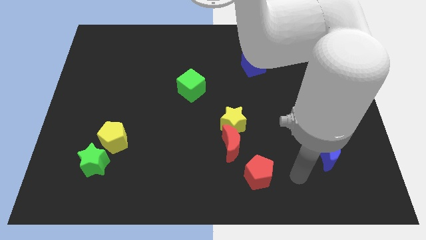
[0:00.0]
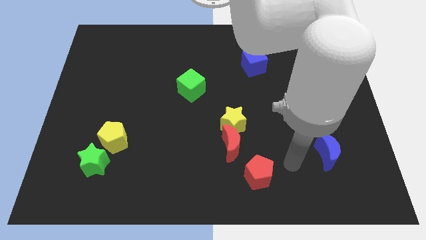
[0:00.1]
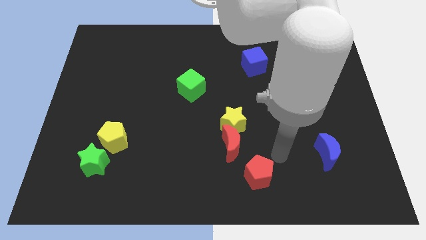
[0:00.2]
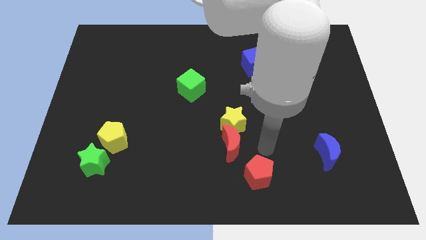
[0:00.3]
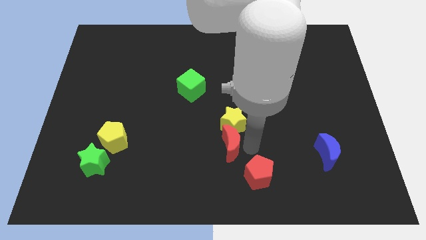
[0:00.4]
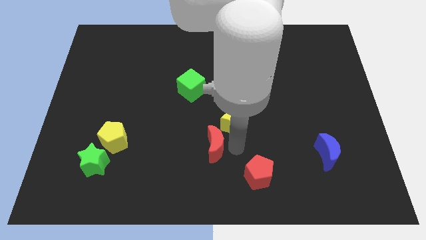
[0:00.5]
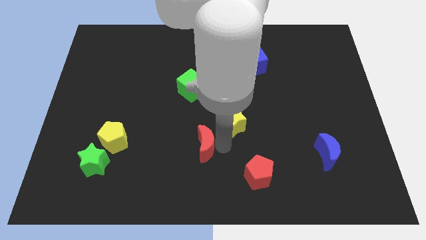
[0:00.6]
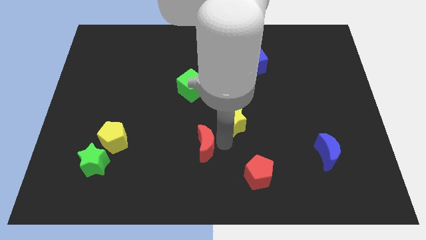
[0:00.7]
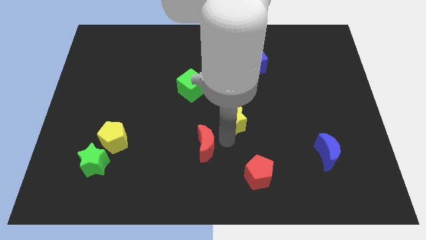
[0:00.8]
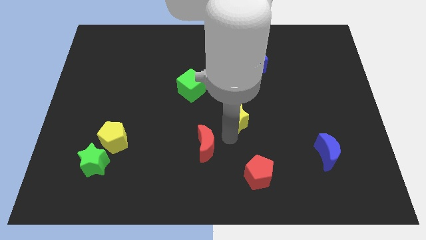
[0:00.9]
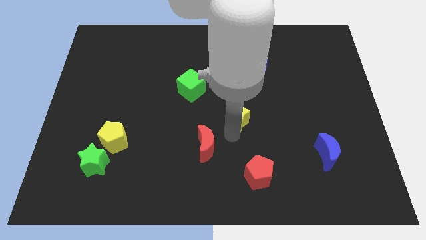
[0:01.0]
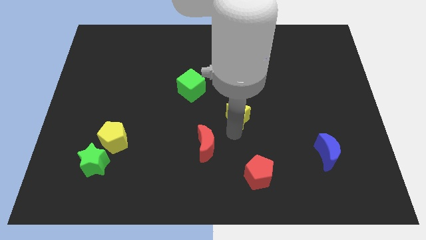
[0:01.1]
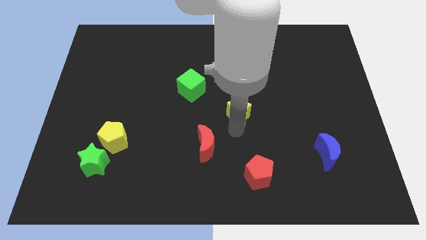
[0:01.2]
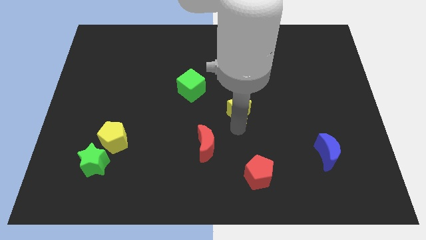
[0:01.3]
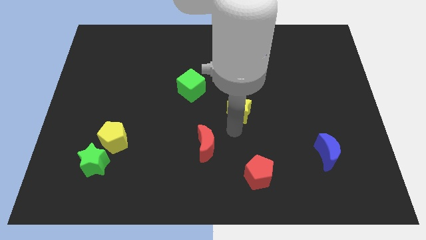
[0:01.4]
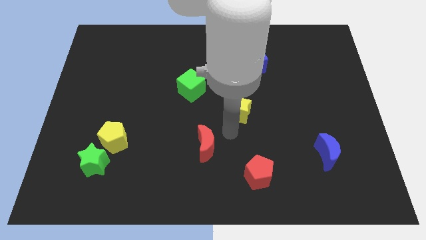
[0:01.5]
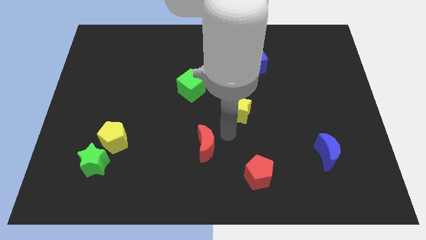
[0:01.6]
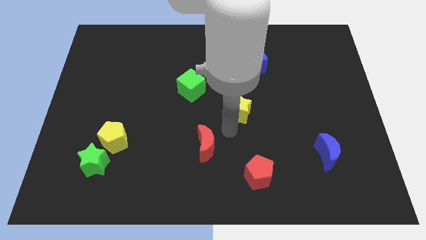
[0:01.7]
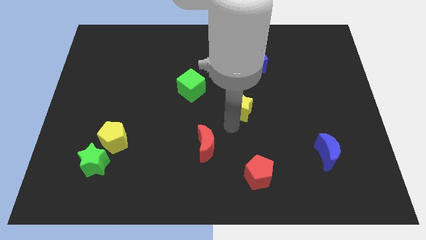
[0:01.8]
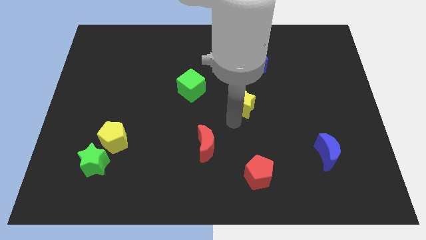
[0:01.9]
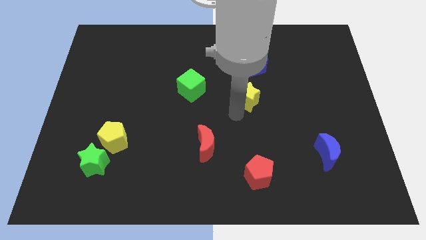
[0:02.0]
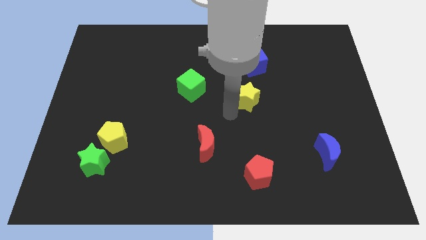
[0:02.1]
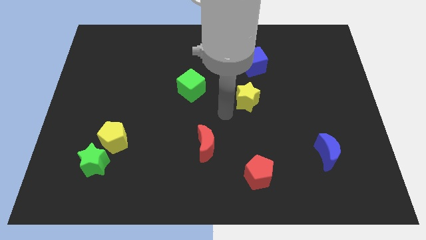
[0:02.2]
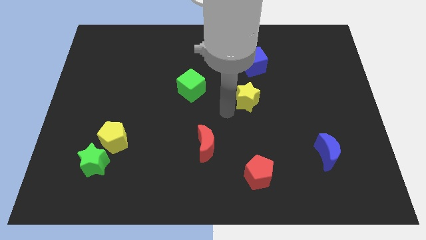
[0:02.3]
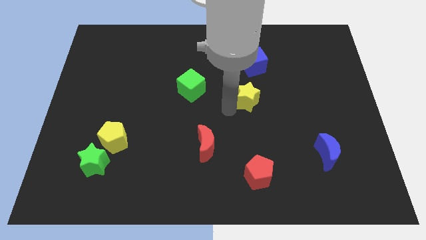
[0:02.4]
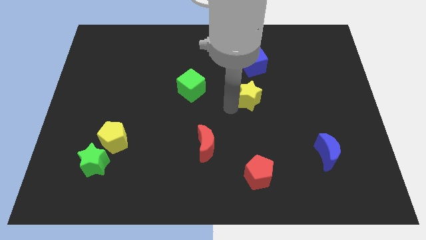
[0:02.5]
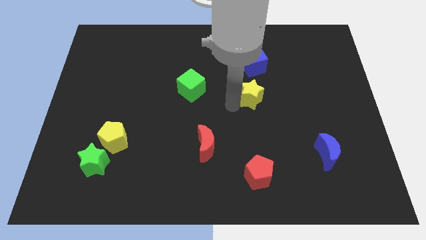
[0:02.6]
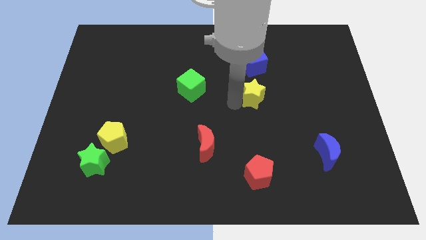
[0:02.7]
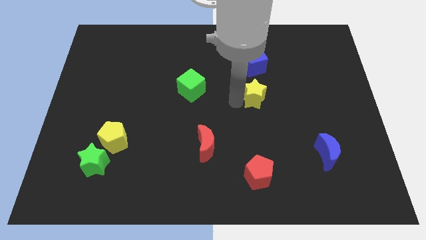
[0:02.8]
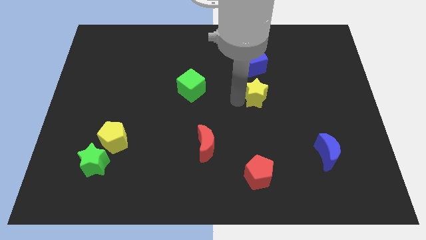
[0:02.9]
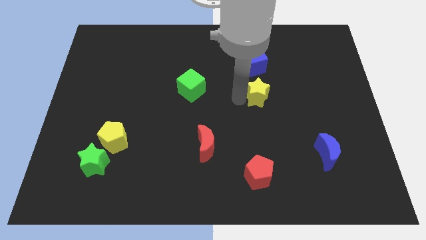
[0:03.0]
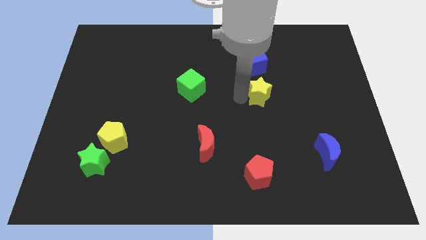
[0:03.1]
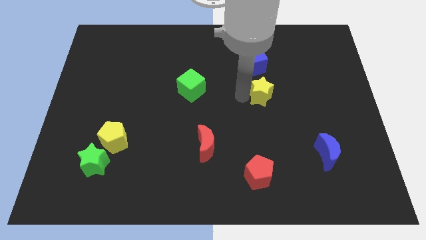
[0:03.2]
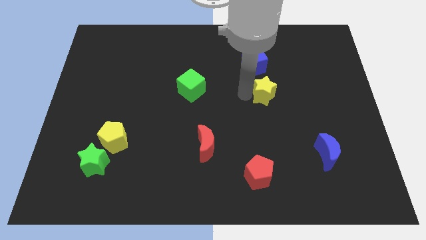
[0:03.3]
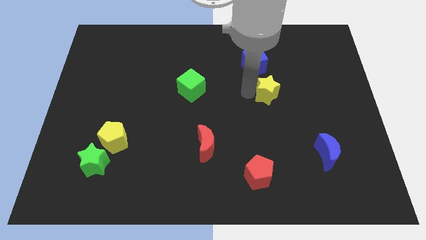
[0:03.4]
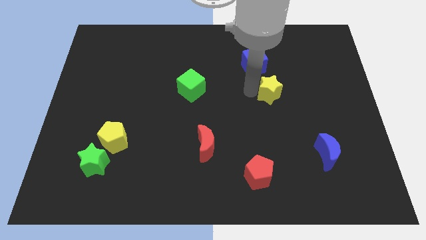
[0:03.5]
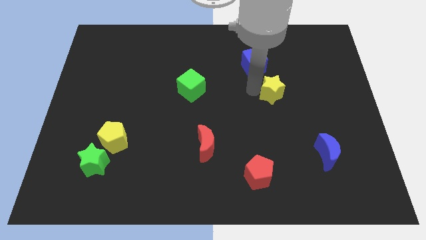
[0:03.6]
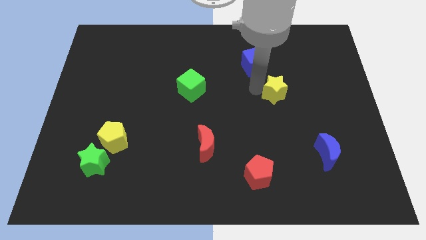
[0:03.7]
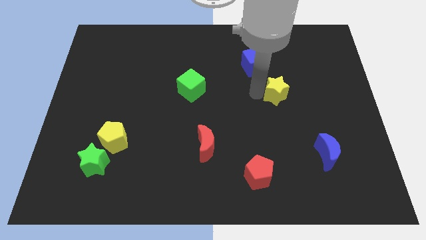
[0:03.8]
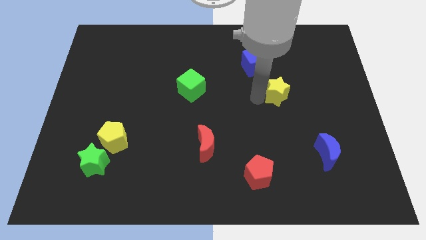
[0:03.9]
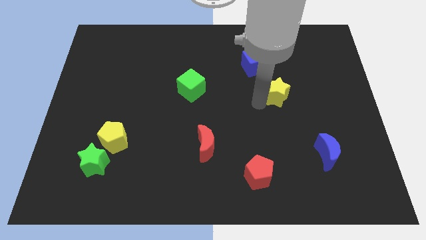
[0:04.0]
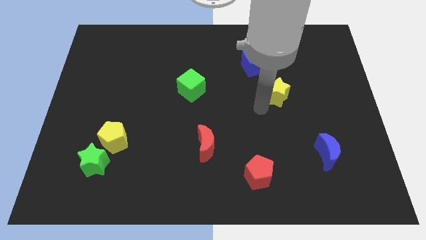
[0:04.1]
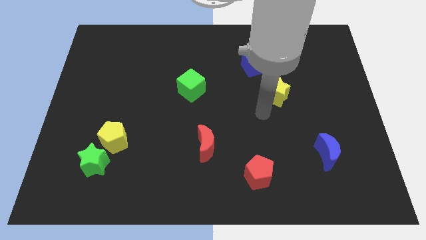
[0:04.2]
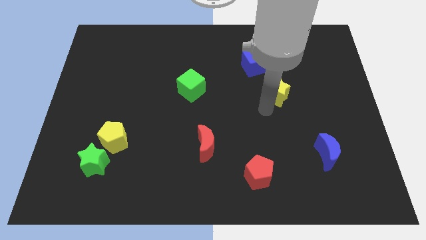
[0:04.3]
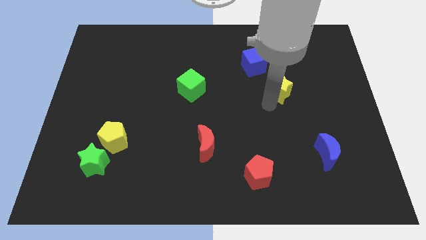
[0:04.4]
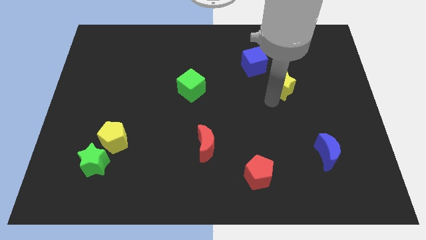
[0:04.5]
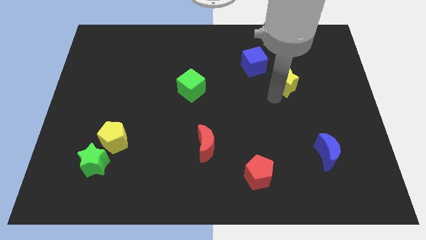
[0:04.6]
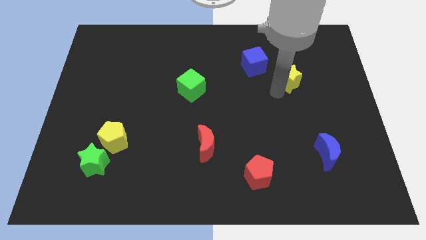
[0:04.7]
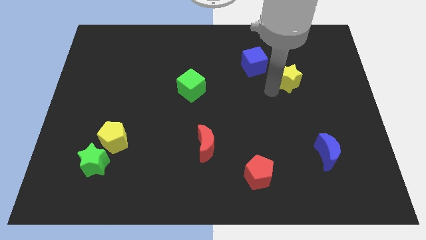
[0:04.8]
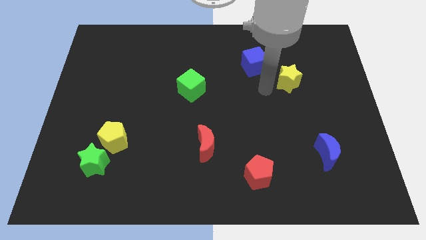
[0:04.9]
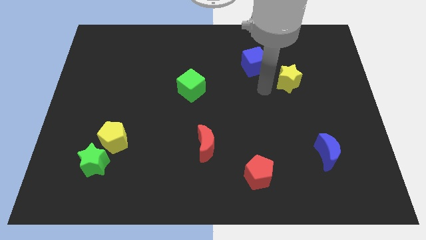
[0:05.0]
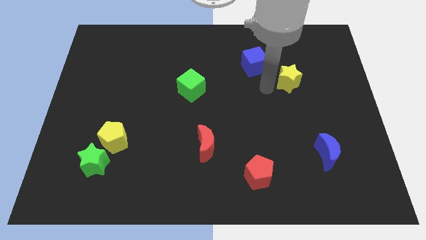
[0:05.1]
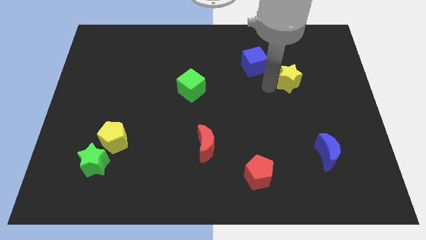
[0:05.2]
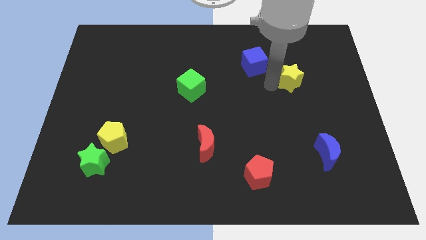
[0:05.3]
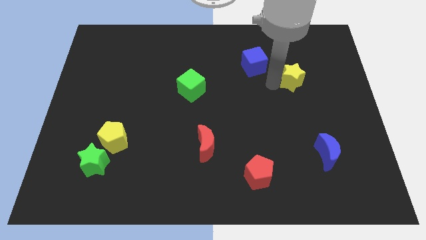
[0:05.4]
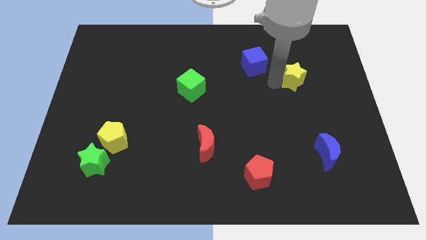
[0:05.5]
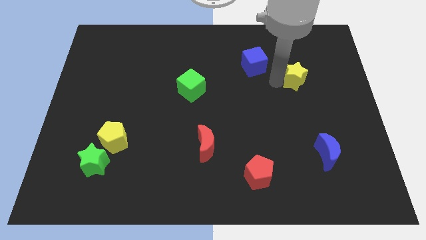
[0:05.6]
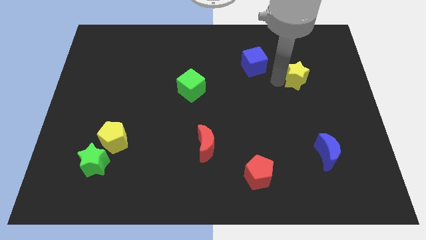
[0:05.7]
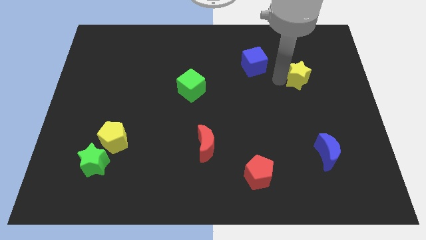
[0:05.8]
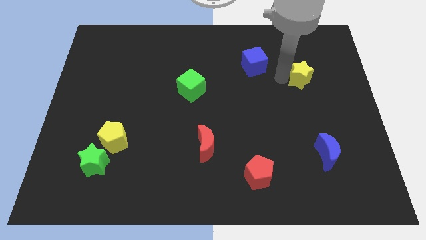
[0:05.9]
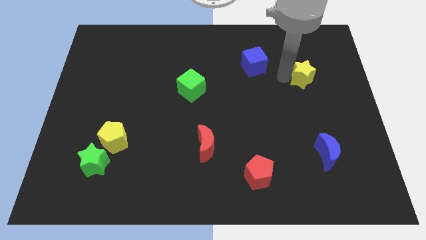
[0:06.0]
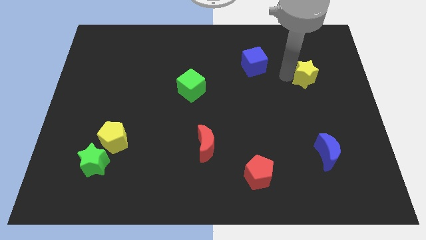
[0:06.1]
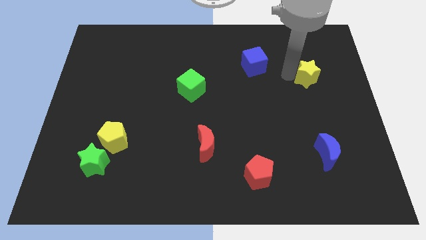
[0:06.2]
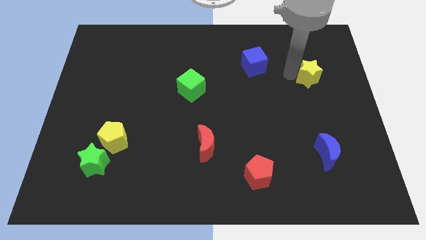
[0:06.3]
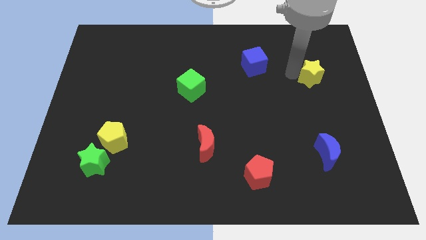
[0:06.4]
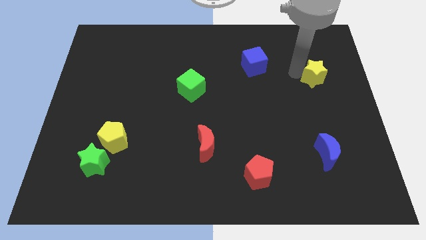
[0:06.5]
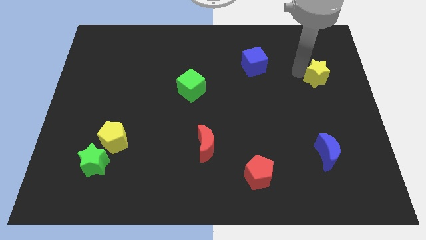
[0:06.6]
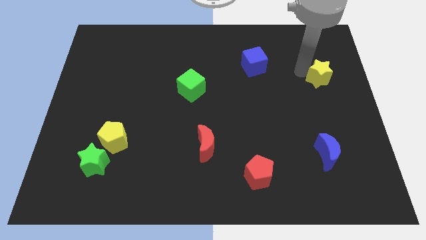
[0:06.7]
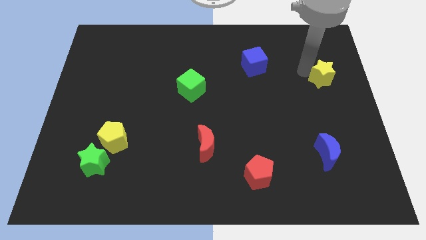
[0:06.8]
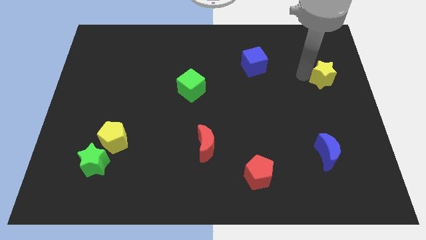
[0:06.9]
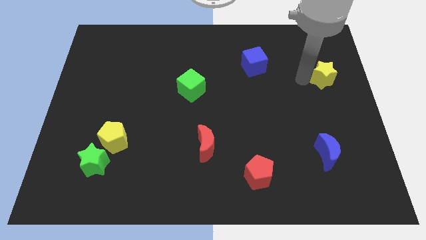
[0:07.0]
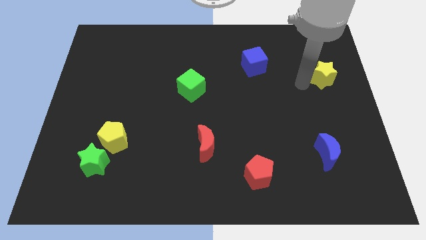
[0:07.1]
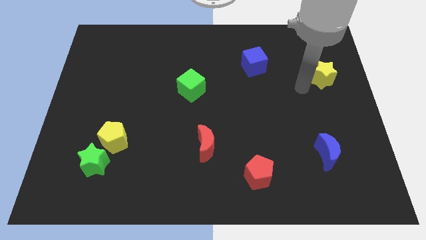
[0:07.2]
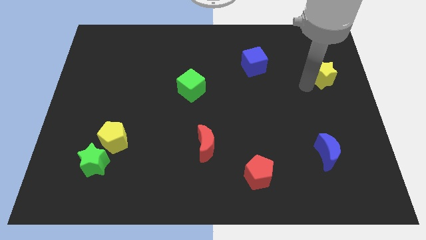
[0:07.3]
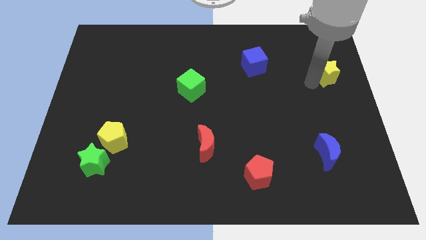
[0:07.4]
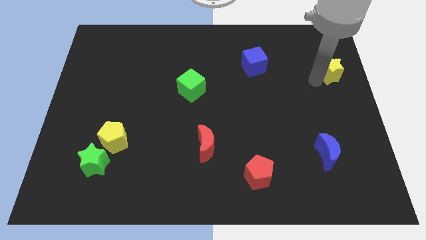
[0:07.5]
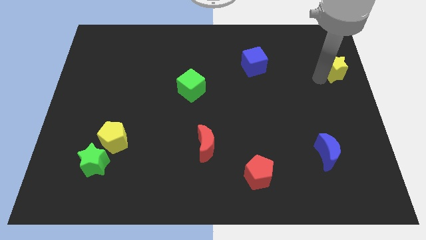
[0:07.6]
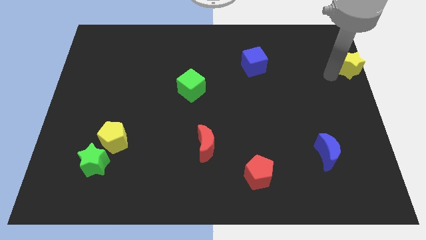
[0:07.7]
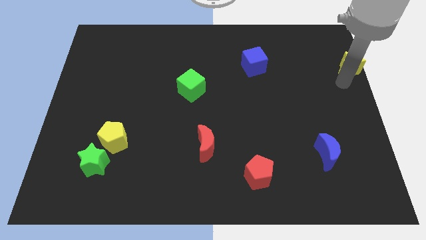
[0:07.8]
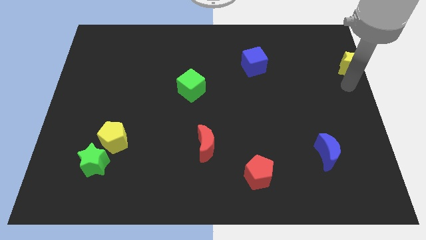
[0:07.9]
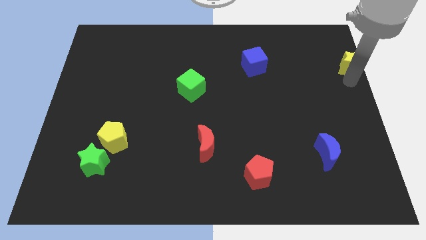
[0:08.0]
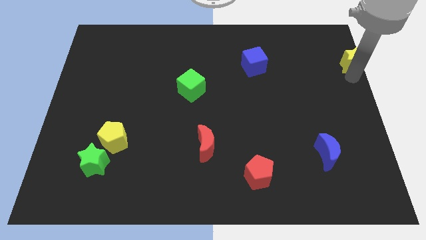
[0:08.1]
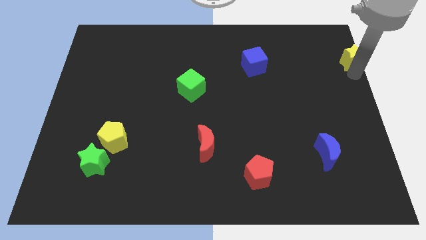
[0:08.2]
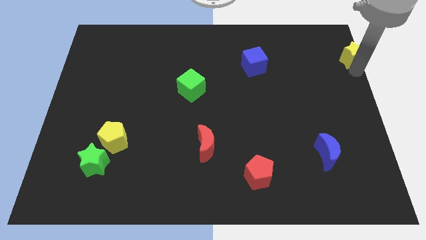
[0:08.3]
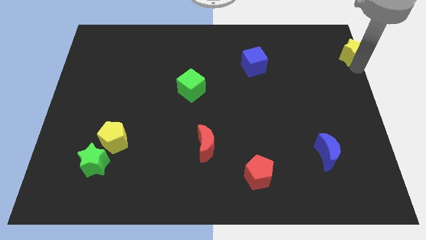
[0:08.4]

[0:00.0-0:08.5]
slide the yellow star to the upper right corner
